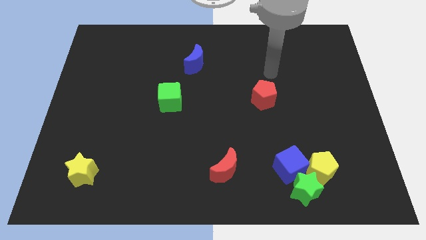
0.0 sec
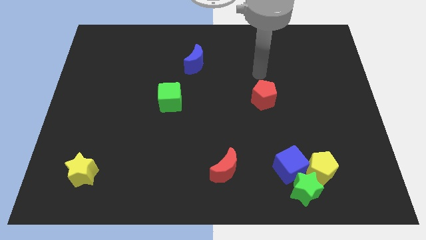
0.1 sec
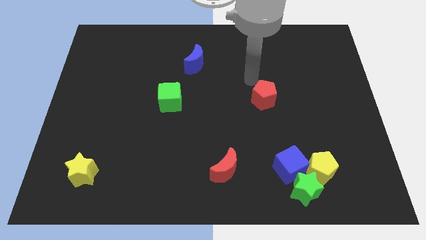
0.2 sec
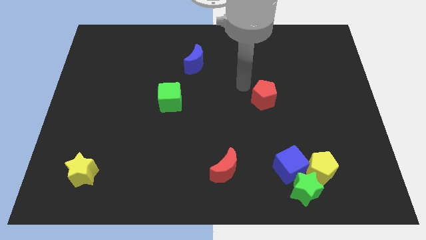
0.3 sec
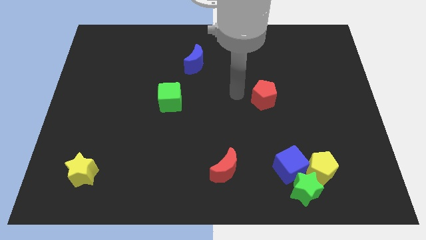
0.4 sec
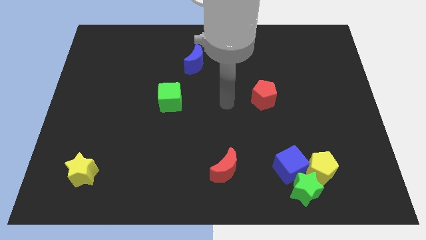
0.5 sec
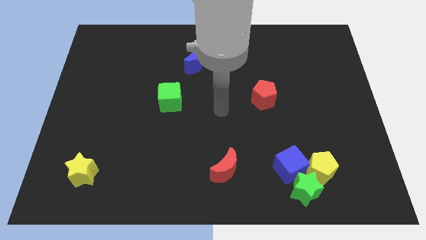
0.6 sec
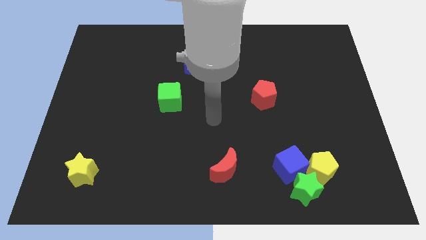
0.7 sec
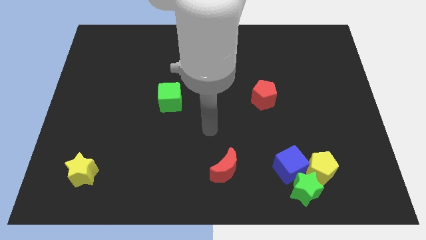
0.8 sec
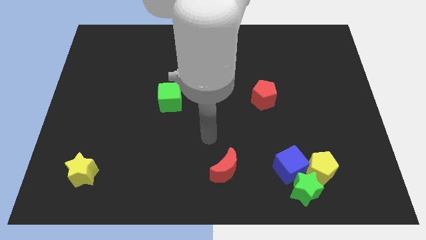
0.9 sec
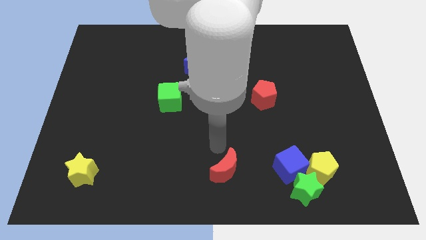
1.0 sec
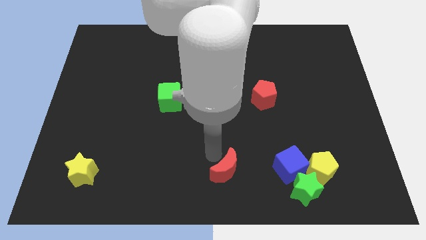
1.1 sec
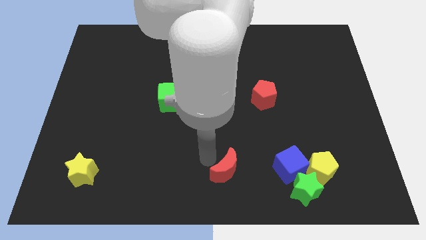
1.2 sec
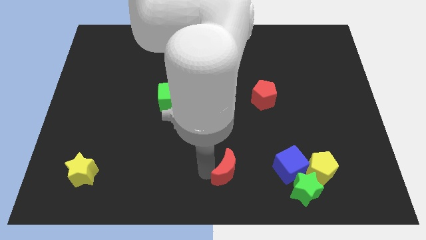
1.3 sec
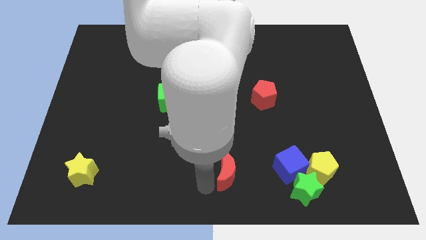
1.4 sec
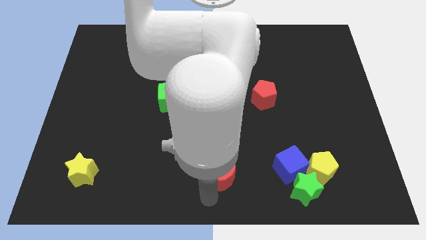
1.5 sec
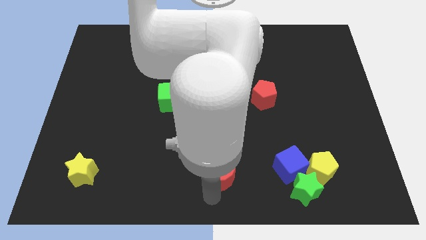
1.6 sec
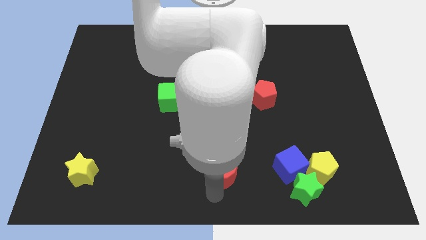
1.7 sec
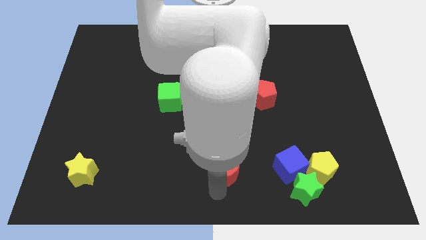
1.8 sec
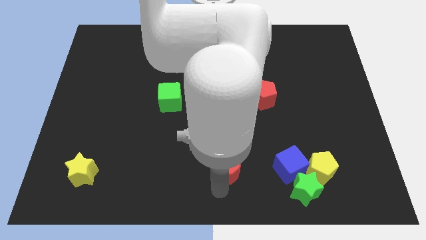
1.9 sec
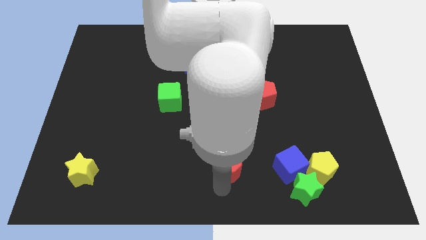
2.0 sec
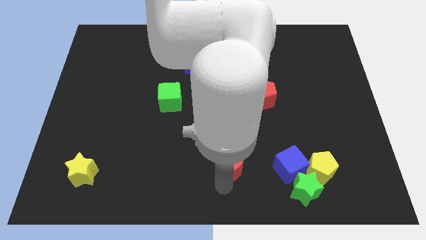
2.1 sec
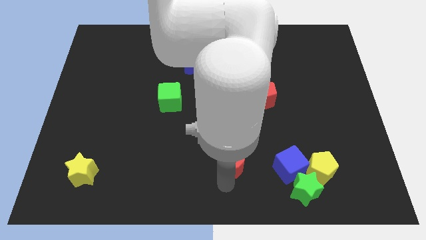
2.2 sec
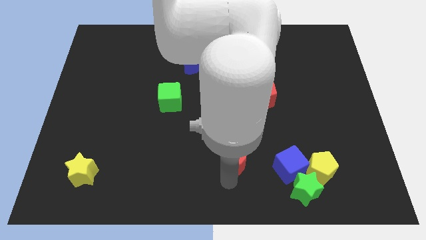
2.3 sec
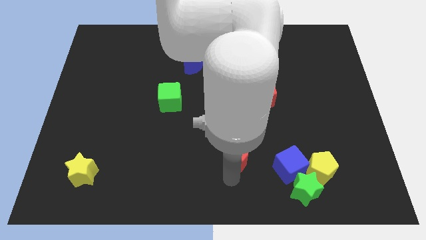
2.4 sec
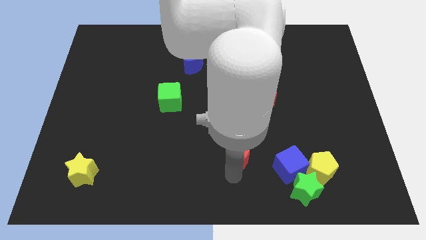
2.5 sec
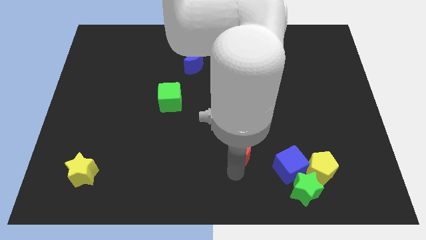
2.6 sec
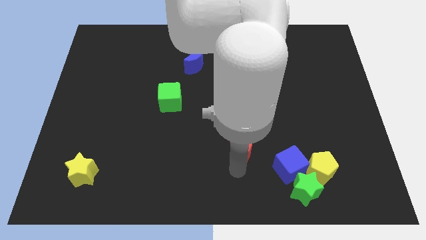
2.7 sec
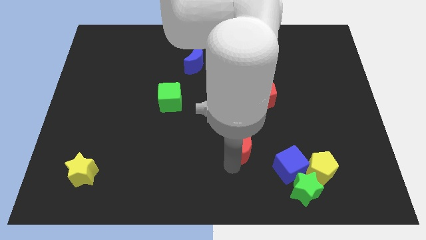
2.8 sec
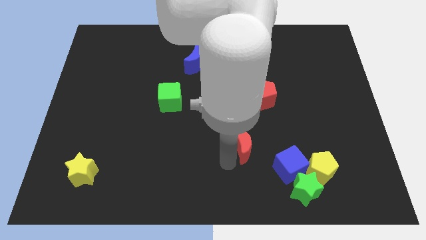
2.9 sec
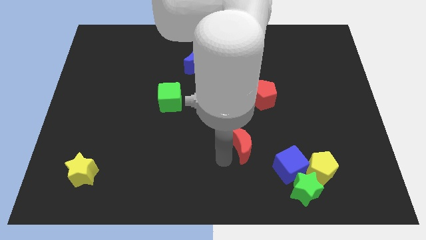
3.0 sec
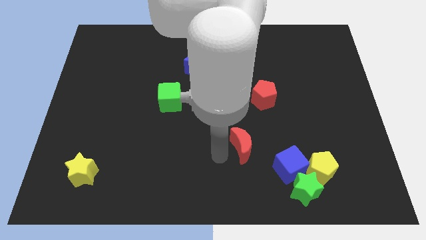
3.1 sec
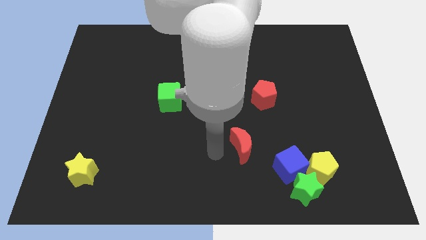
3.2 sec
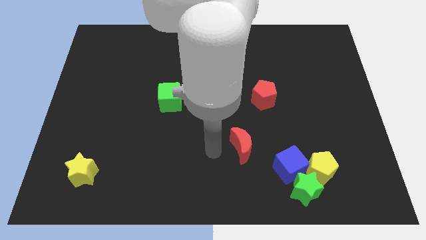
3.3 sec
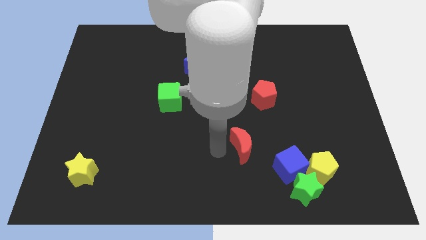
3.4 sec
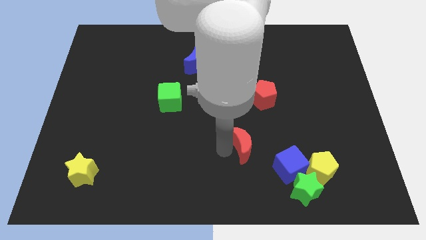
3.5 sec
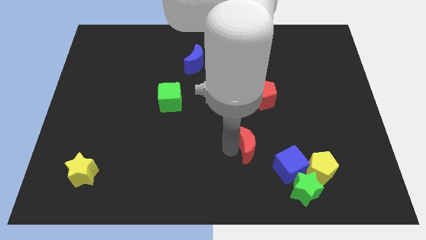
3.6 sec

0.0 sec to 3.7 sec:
slightly slide the red moon upwards and to the right diagonally

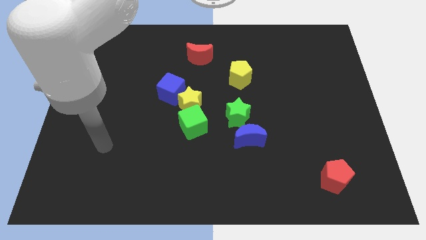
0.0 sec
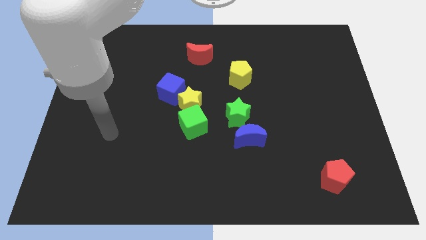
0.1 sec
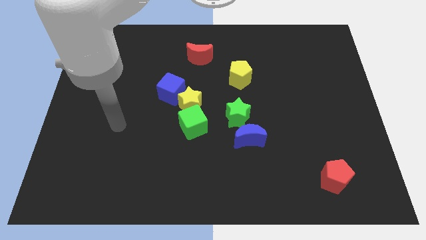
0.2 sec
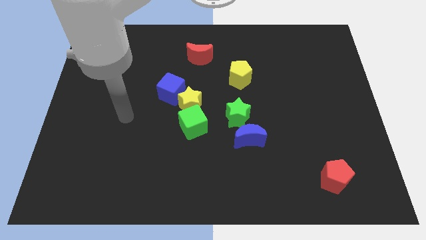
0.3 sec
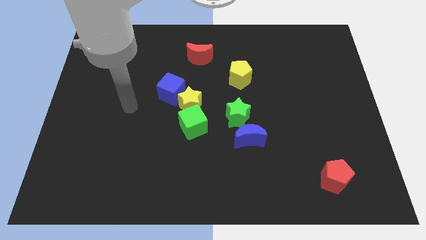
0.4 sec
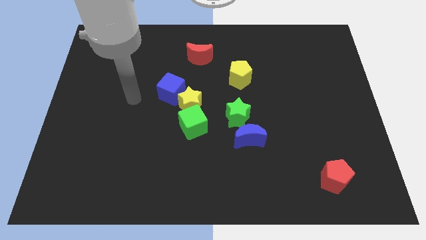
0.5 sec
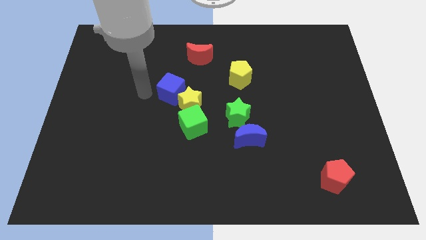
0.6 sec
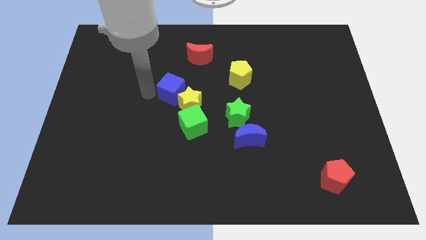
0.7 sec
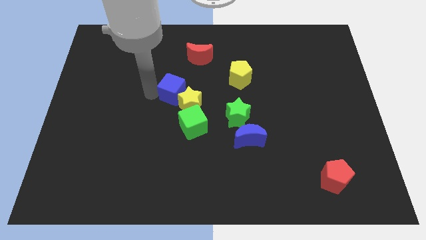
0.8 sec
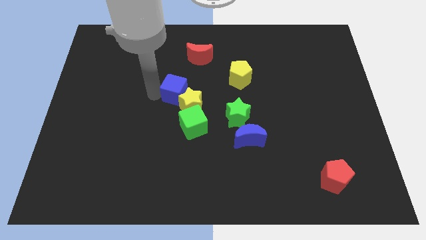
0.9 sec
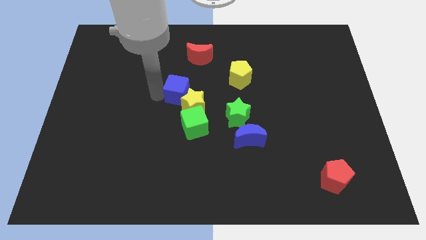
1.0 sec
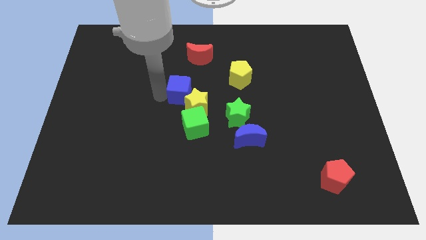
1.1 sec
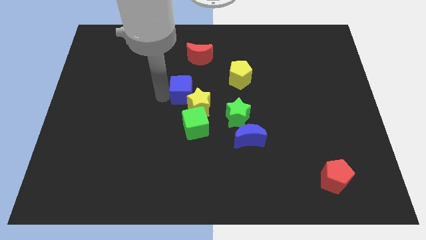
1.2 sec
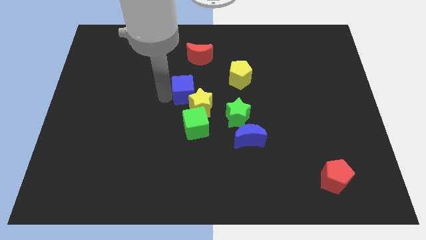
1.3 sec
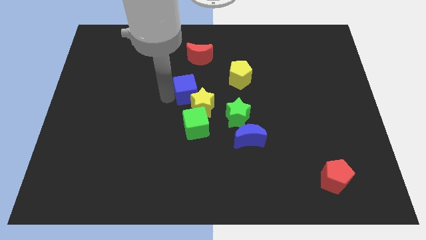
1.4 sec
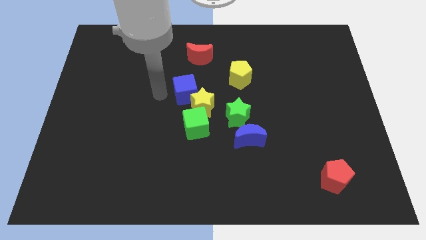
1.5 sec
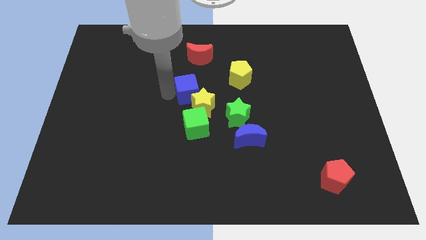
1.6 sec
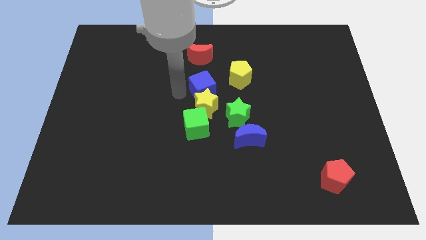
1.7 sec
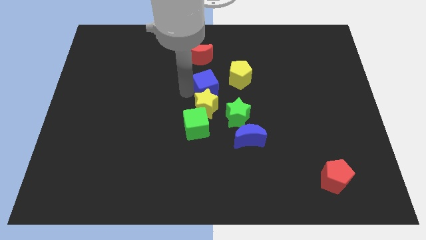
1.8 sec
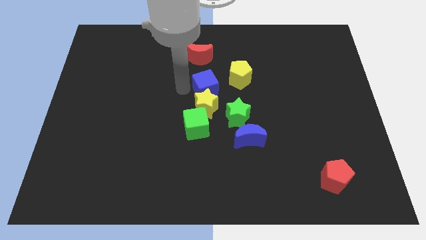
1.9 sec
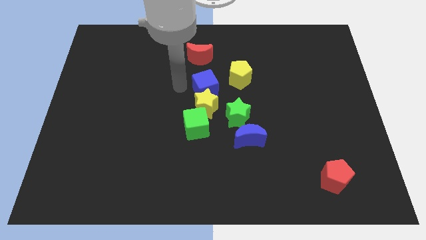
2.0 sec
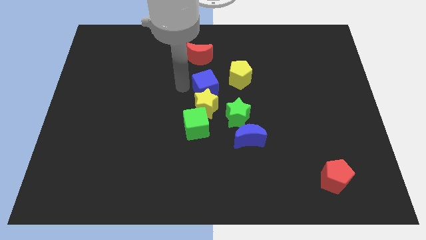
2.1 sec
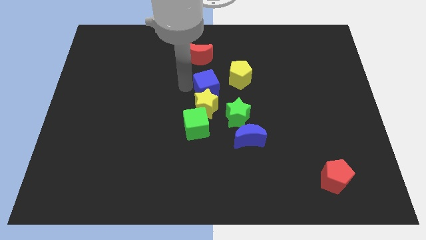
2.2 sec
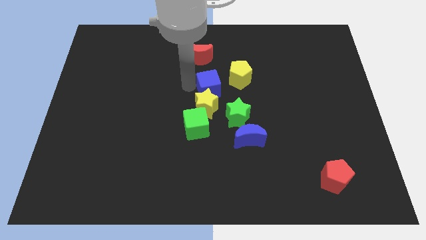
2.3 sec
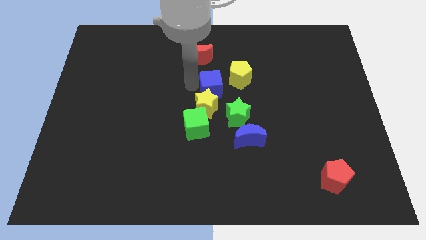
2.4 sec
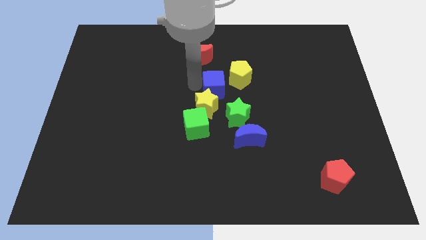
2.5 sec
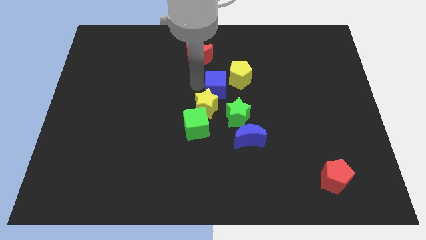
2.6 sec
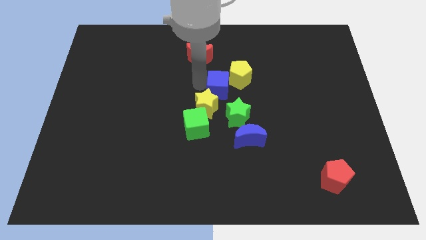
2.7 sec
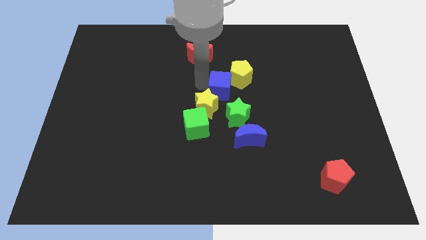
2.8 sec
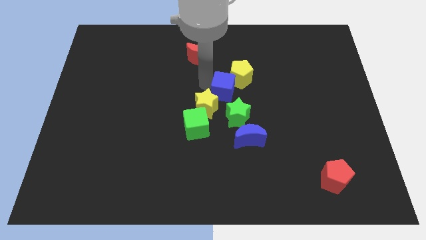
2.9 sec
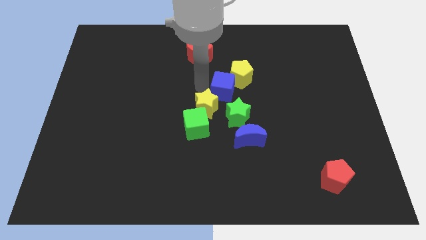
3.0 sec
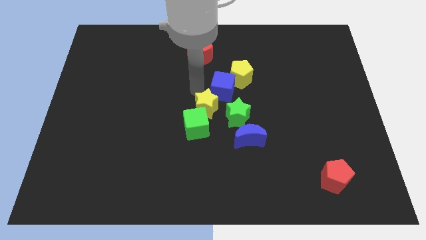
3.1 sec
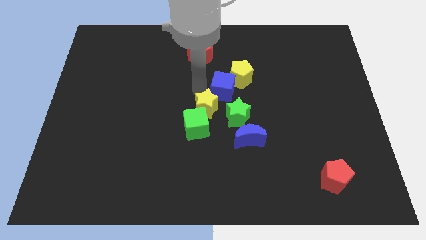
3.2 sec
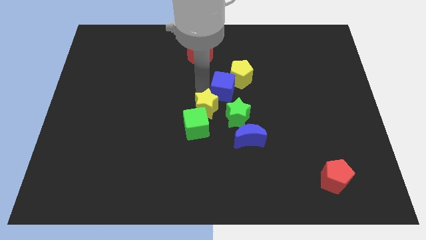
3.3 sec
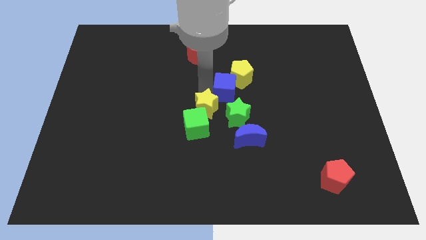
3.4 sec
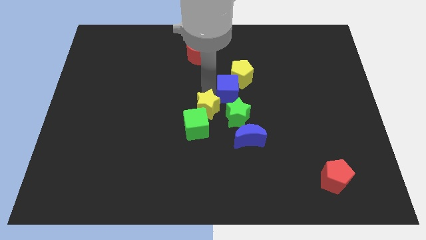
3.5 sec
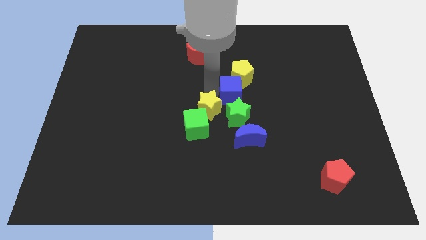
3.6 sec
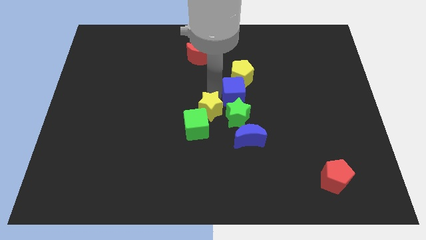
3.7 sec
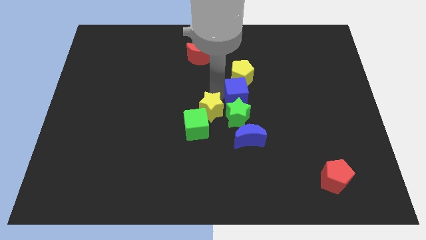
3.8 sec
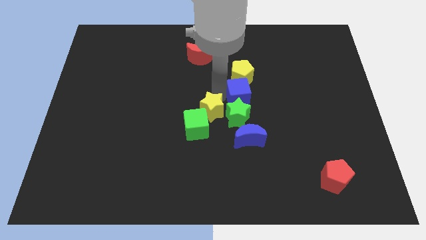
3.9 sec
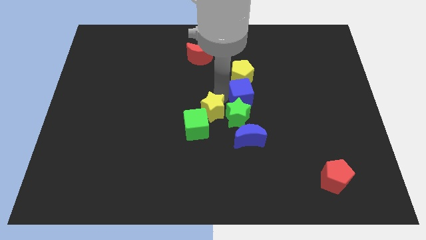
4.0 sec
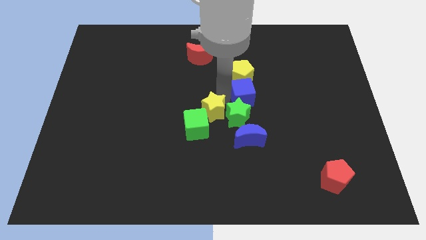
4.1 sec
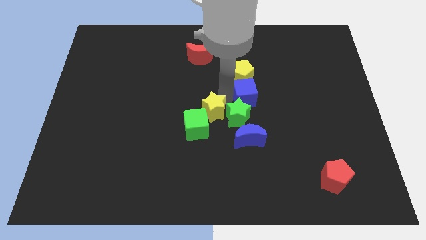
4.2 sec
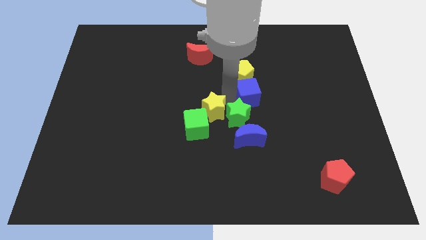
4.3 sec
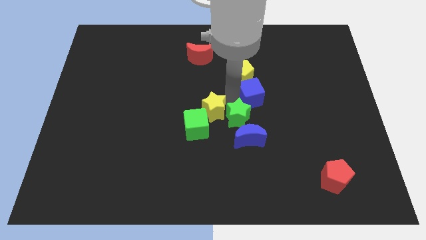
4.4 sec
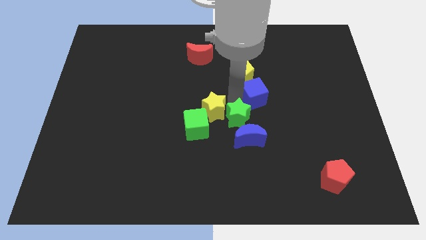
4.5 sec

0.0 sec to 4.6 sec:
move the blue cube to the right
